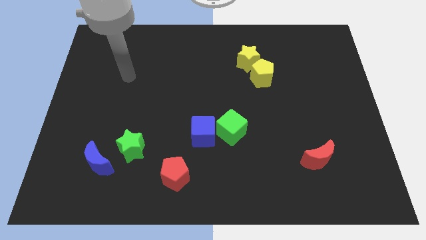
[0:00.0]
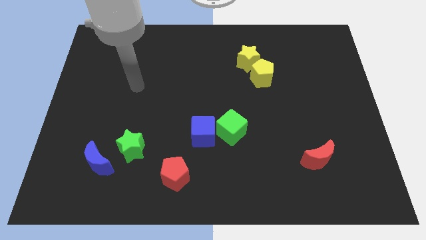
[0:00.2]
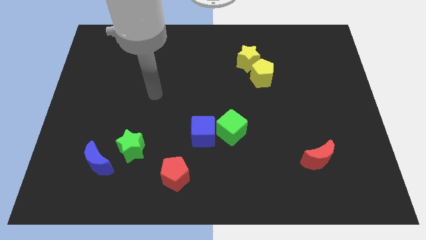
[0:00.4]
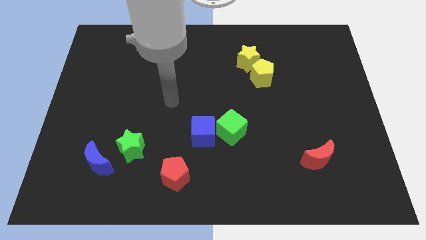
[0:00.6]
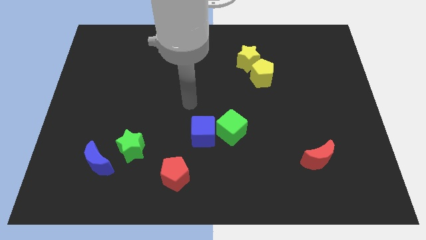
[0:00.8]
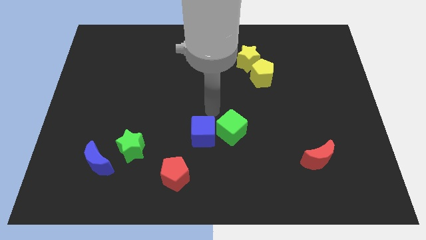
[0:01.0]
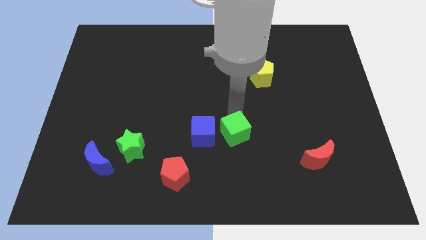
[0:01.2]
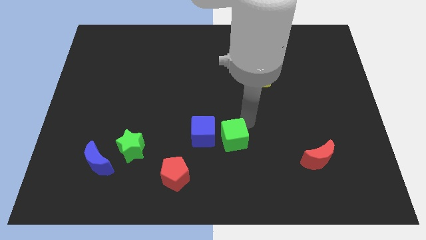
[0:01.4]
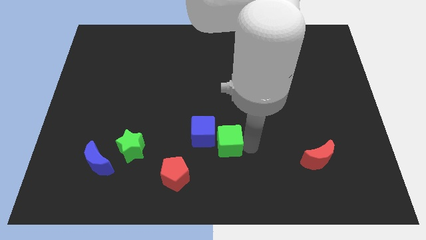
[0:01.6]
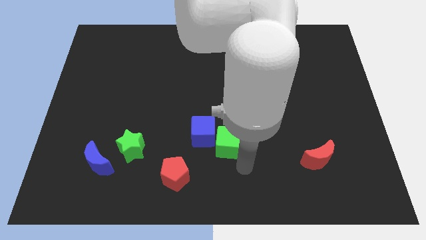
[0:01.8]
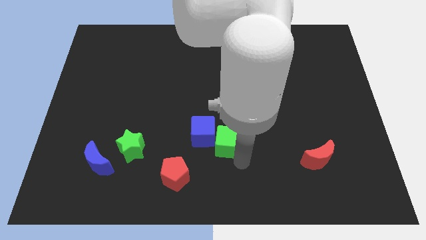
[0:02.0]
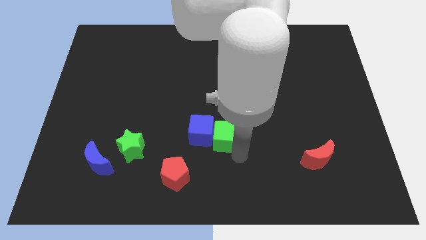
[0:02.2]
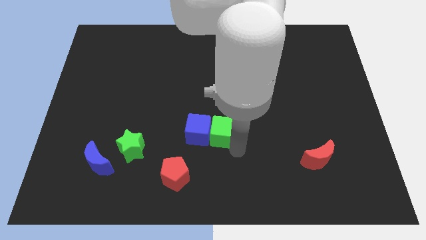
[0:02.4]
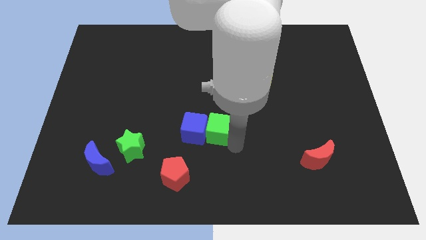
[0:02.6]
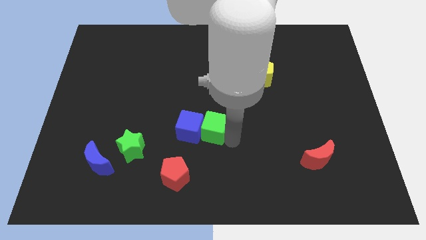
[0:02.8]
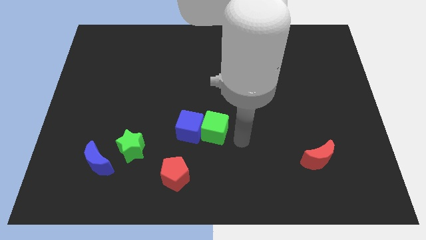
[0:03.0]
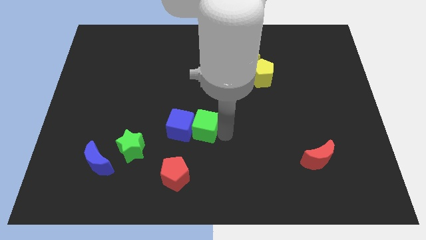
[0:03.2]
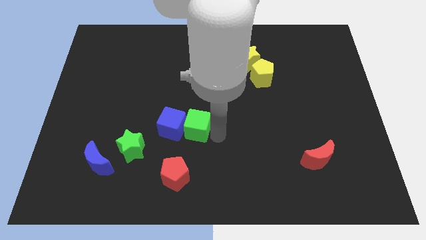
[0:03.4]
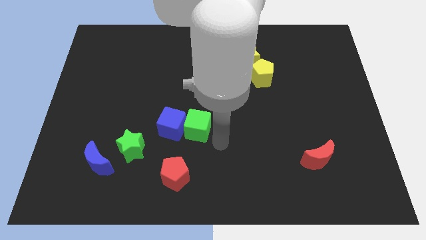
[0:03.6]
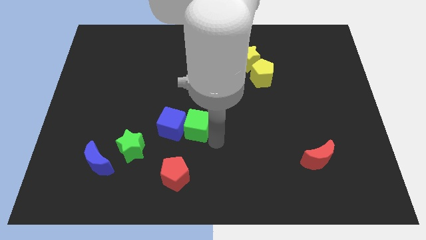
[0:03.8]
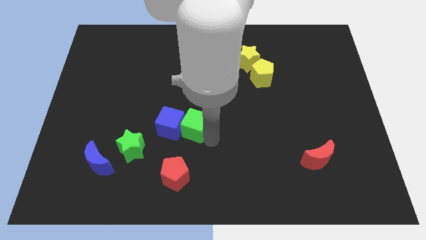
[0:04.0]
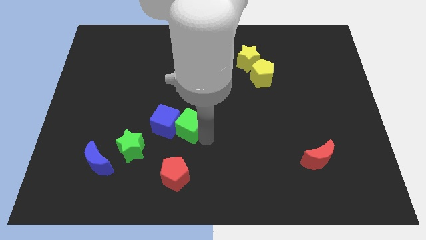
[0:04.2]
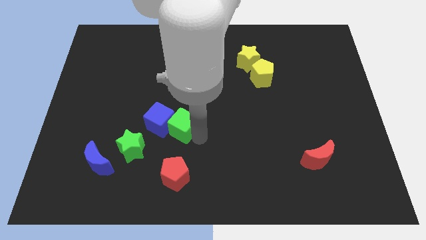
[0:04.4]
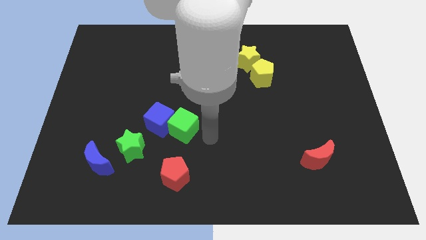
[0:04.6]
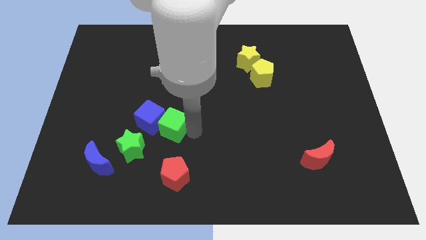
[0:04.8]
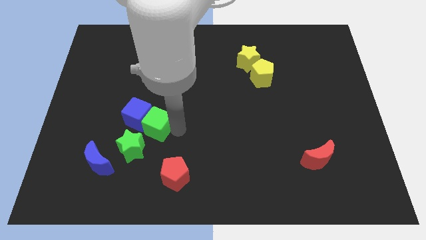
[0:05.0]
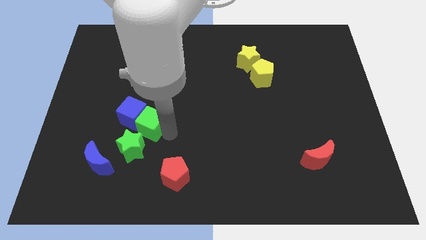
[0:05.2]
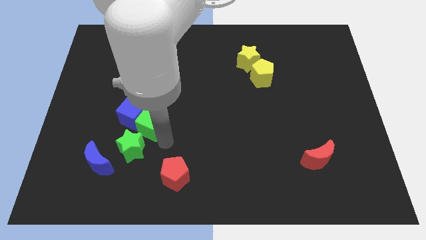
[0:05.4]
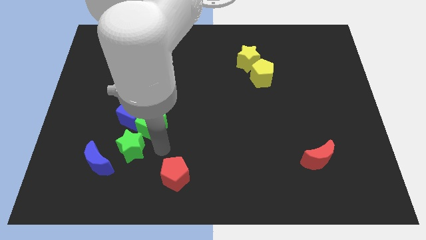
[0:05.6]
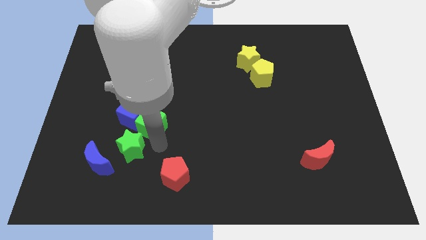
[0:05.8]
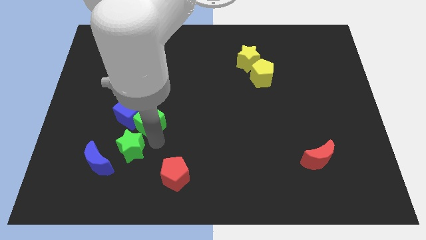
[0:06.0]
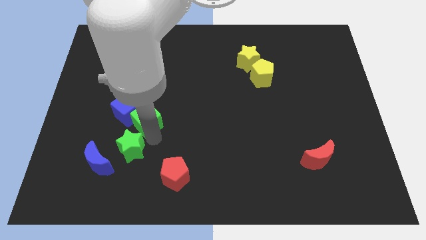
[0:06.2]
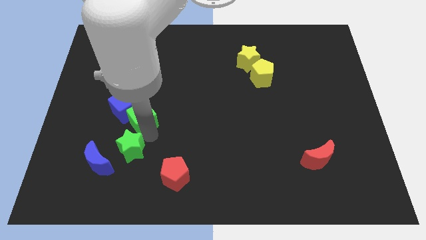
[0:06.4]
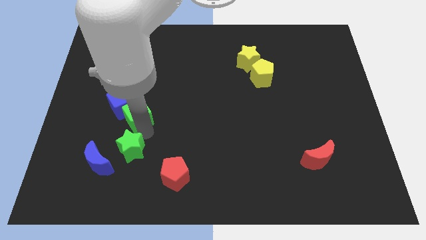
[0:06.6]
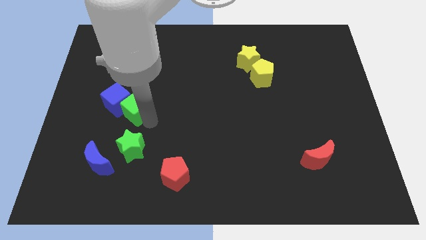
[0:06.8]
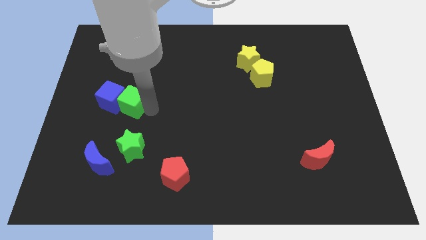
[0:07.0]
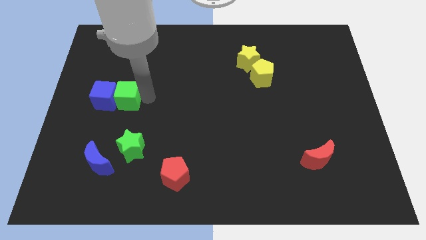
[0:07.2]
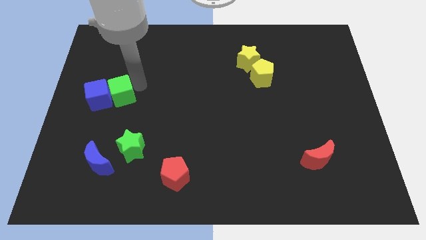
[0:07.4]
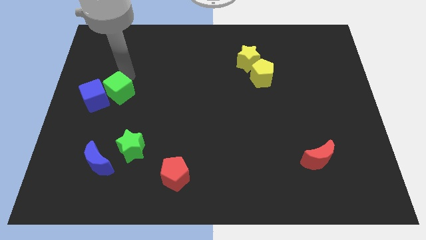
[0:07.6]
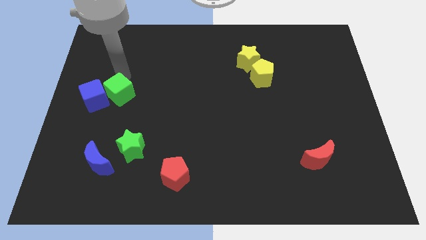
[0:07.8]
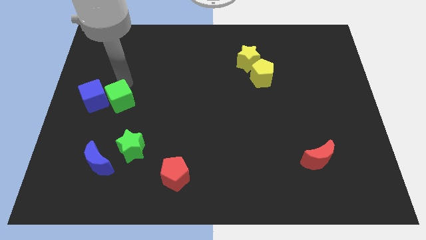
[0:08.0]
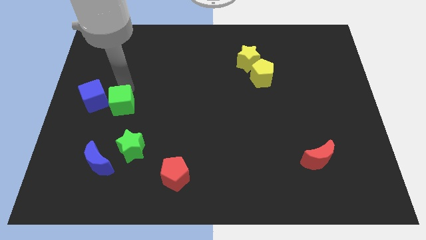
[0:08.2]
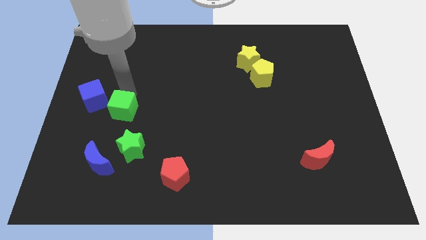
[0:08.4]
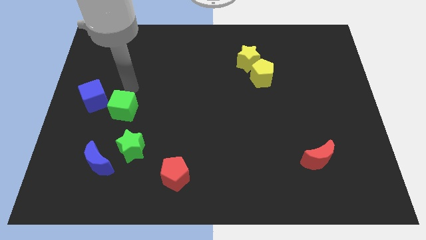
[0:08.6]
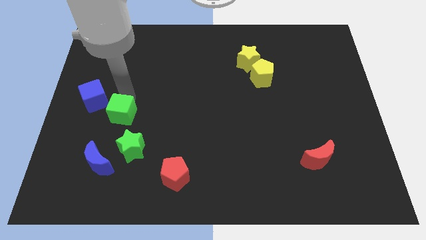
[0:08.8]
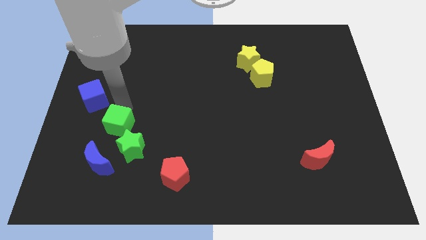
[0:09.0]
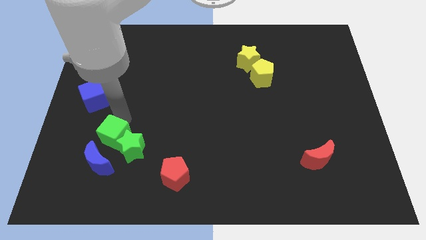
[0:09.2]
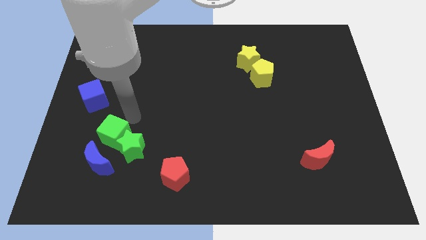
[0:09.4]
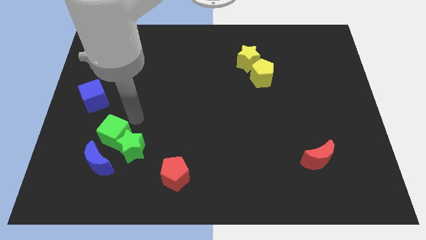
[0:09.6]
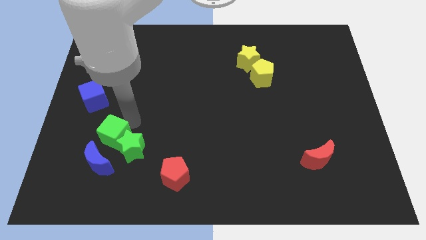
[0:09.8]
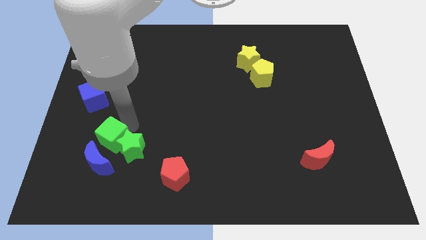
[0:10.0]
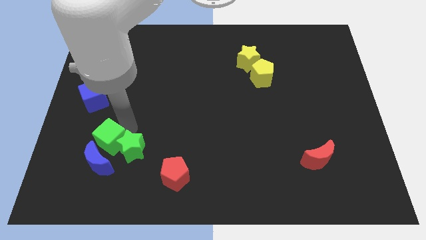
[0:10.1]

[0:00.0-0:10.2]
move the green cube to the blue moon

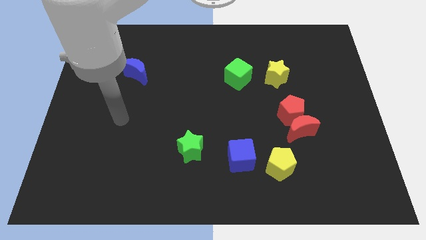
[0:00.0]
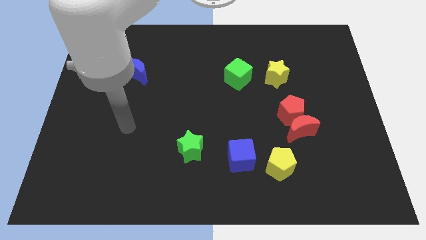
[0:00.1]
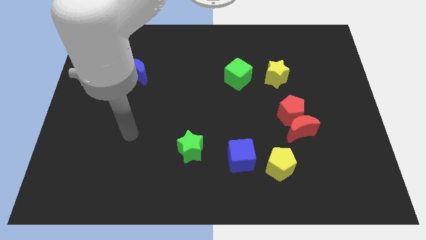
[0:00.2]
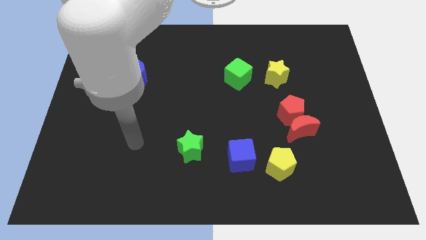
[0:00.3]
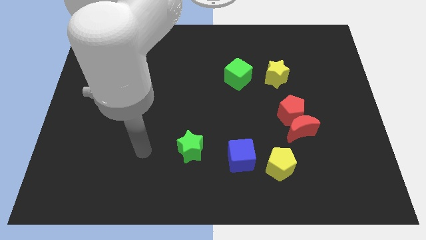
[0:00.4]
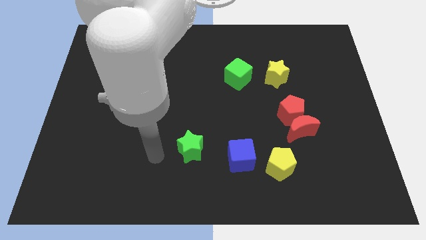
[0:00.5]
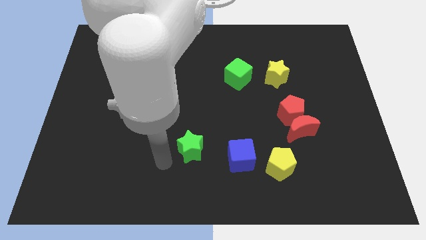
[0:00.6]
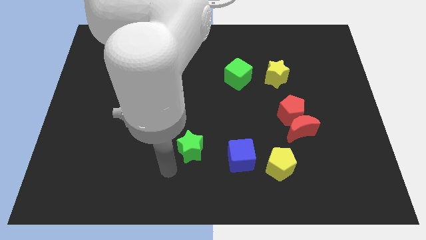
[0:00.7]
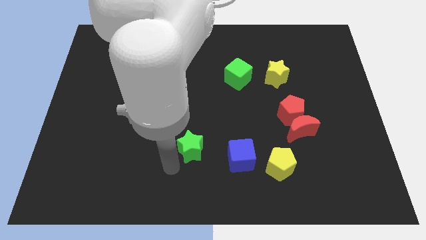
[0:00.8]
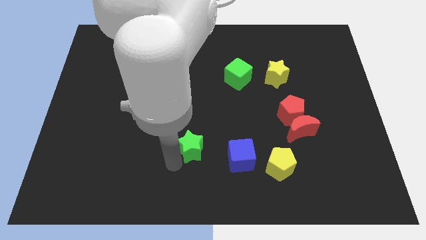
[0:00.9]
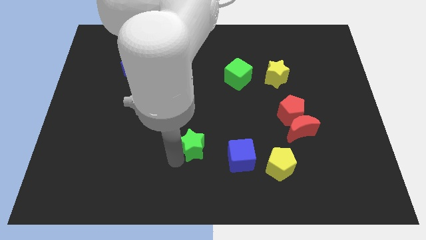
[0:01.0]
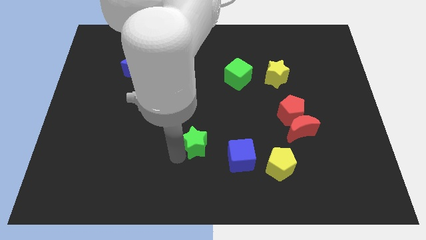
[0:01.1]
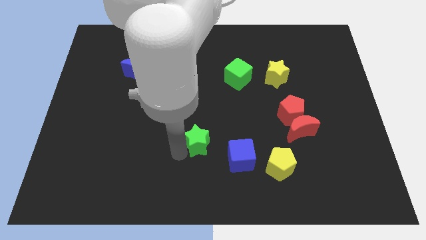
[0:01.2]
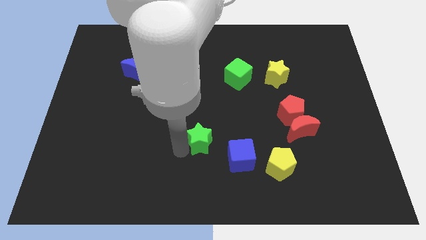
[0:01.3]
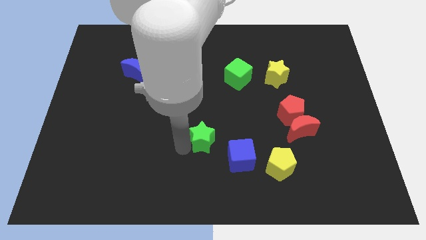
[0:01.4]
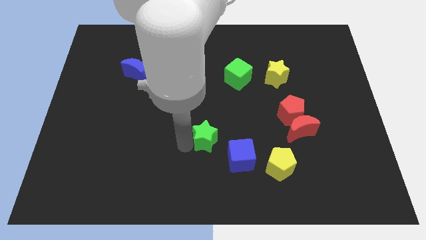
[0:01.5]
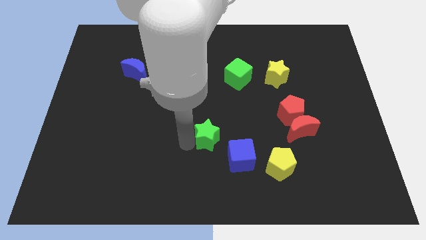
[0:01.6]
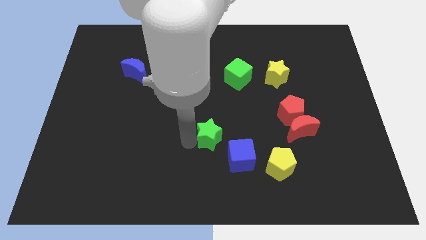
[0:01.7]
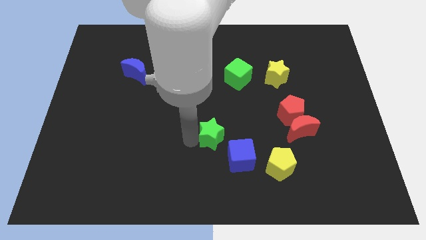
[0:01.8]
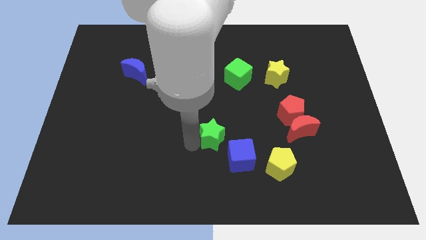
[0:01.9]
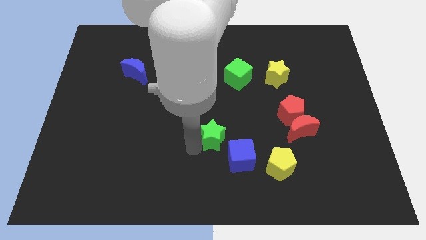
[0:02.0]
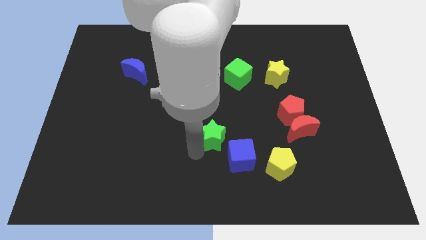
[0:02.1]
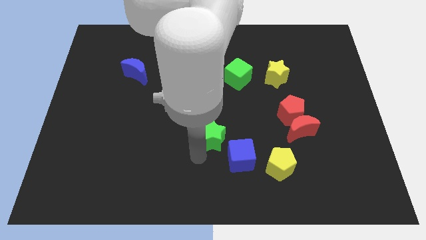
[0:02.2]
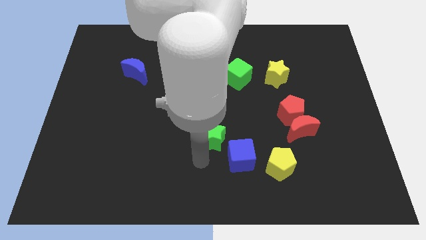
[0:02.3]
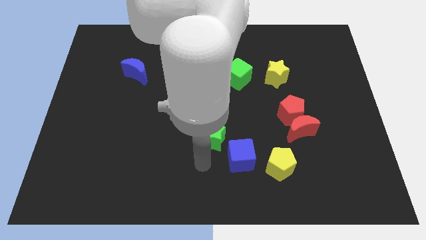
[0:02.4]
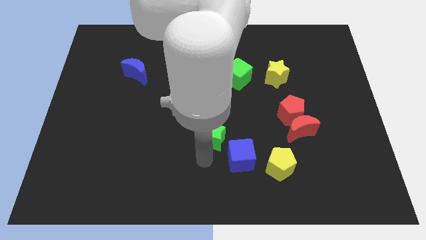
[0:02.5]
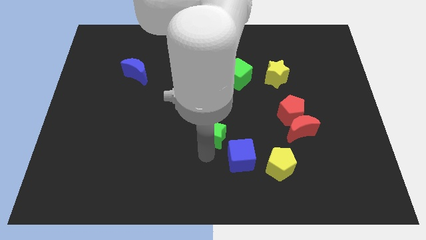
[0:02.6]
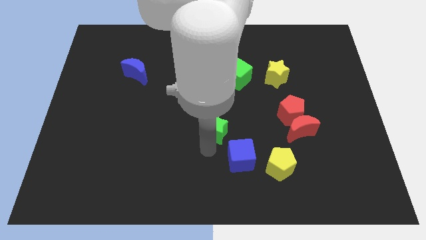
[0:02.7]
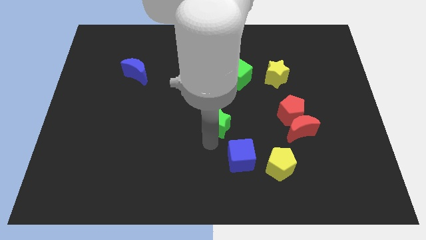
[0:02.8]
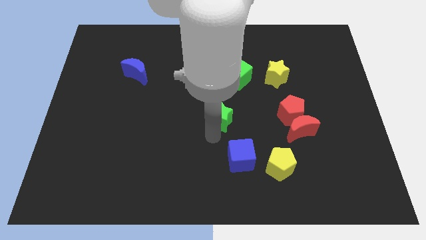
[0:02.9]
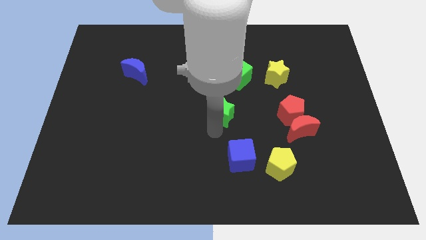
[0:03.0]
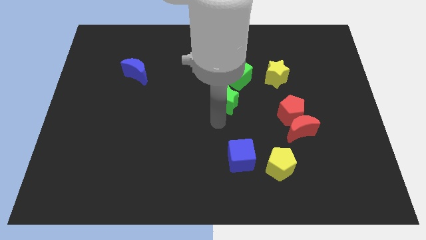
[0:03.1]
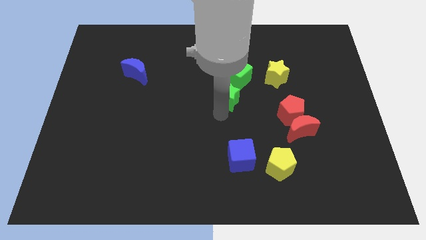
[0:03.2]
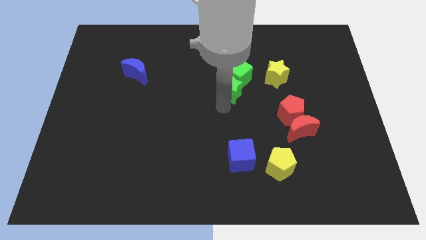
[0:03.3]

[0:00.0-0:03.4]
move the green star close to the green cube
